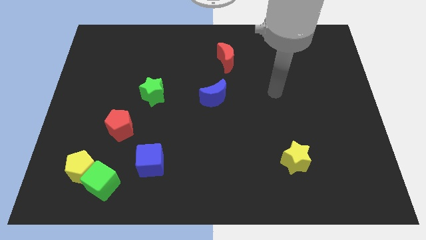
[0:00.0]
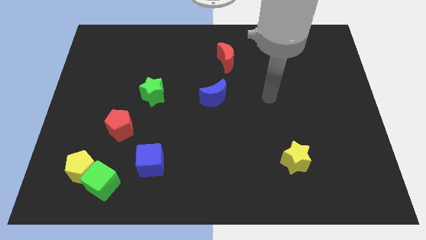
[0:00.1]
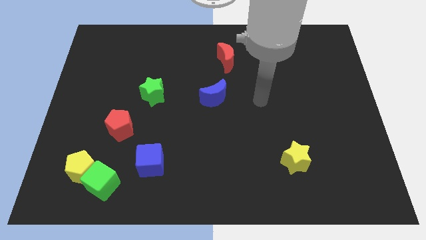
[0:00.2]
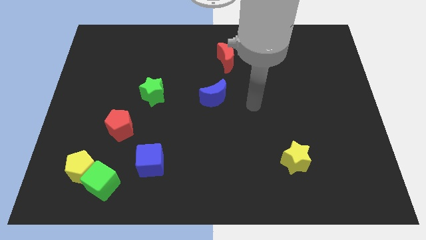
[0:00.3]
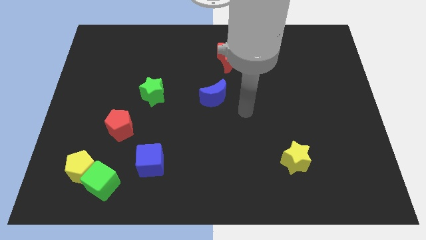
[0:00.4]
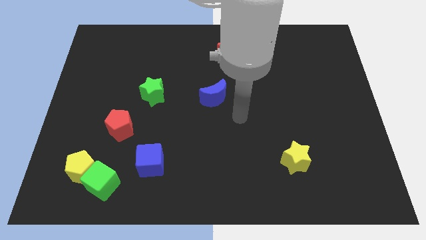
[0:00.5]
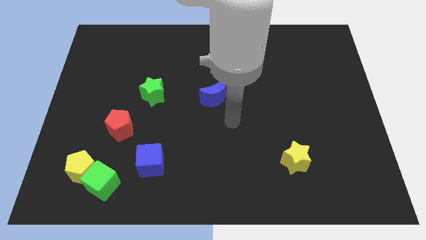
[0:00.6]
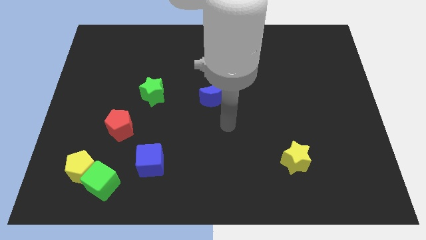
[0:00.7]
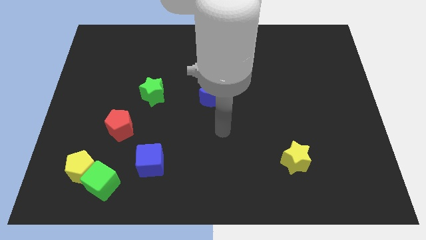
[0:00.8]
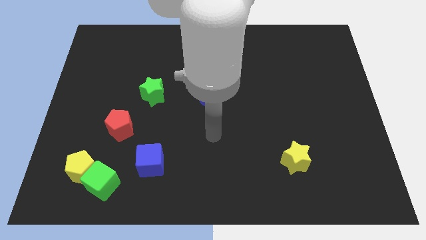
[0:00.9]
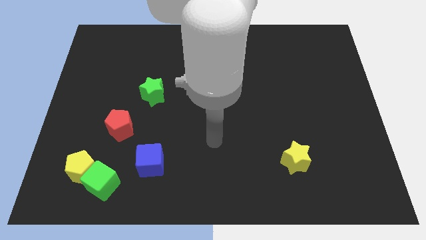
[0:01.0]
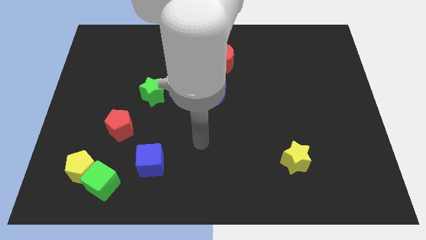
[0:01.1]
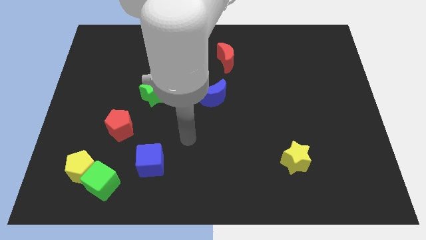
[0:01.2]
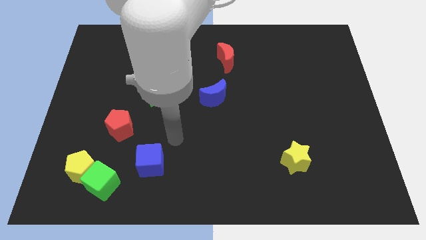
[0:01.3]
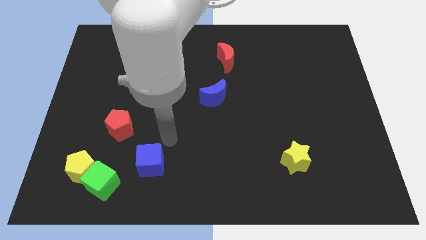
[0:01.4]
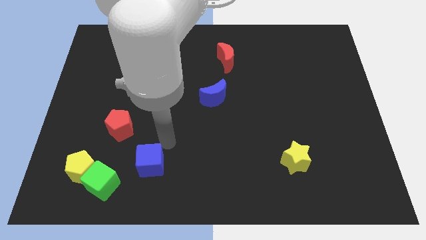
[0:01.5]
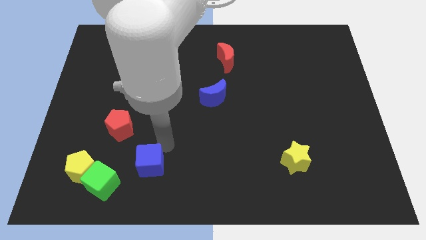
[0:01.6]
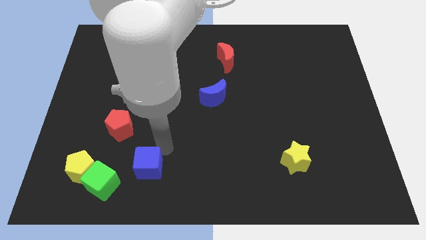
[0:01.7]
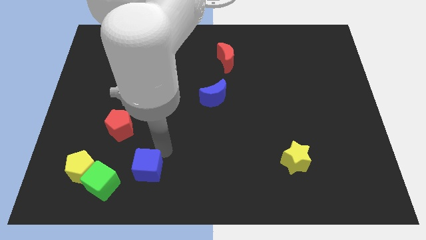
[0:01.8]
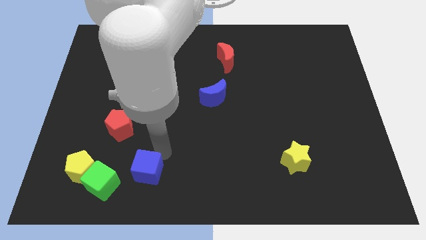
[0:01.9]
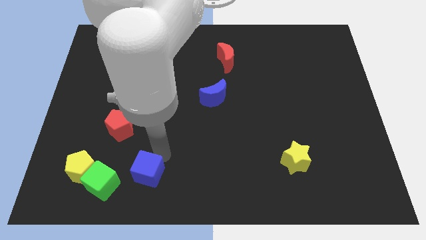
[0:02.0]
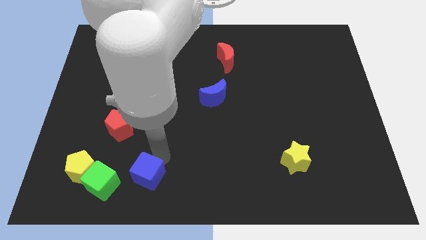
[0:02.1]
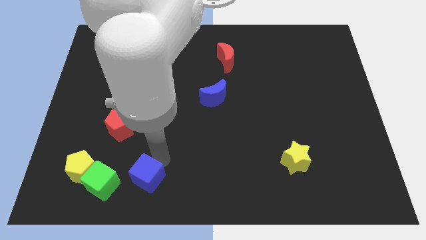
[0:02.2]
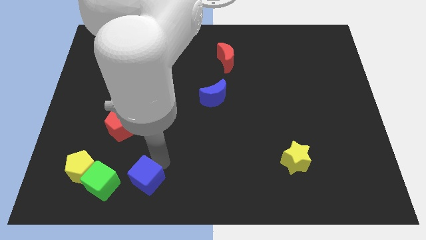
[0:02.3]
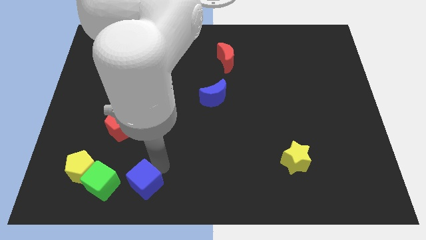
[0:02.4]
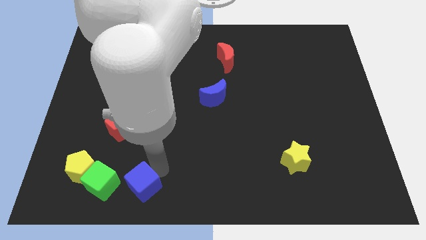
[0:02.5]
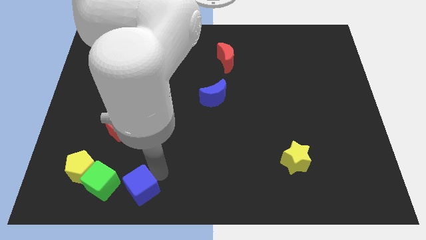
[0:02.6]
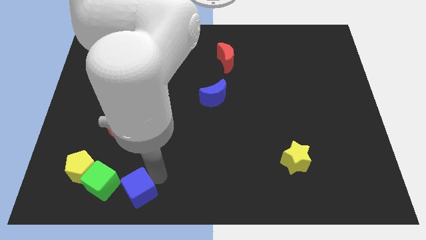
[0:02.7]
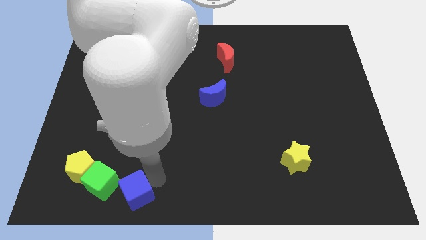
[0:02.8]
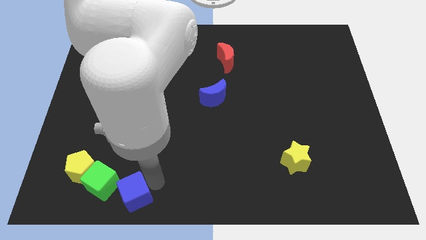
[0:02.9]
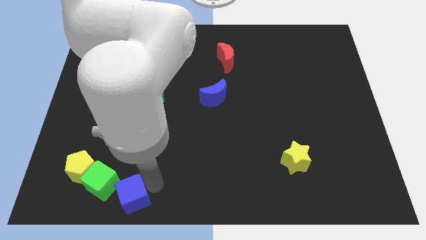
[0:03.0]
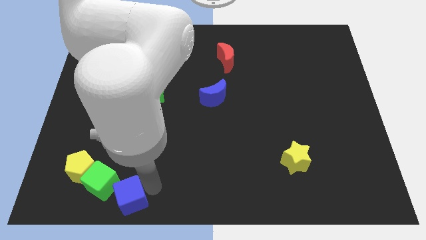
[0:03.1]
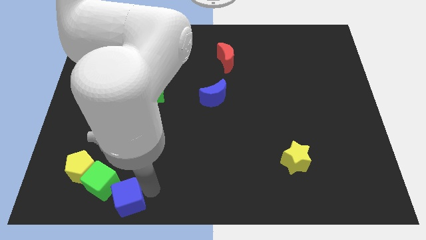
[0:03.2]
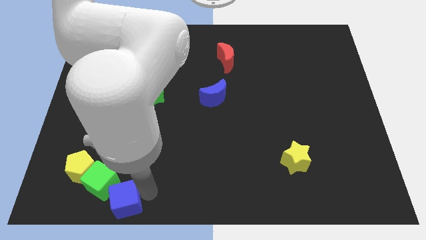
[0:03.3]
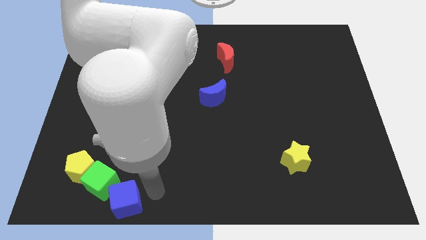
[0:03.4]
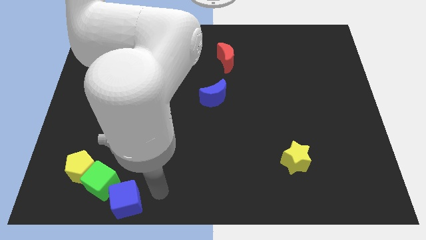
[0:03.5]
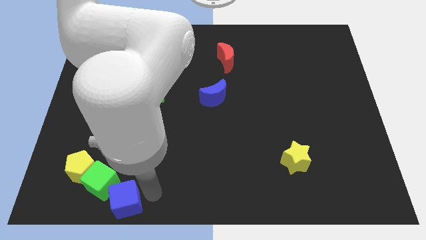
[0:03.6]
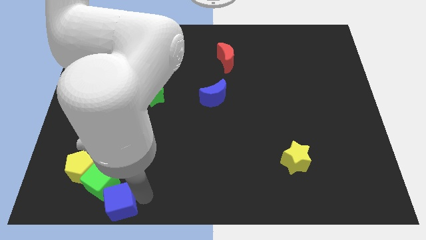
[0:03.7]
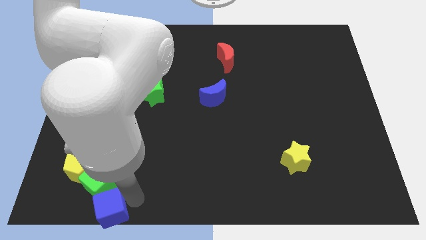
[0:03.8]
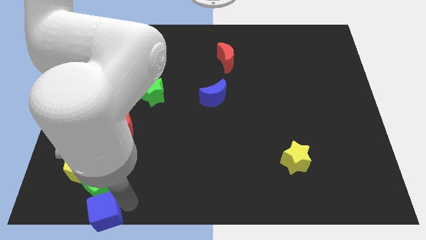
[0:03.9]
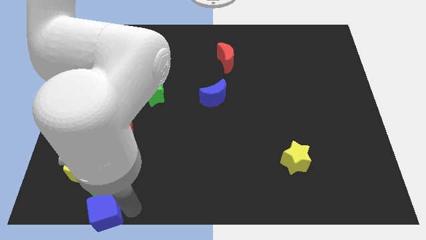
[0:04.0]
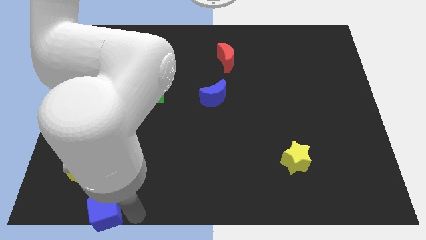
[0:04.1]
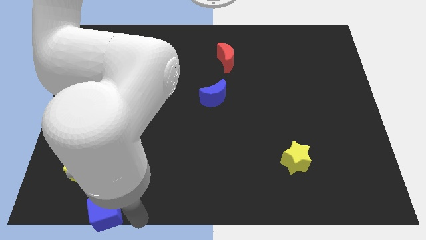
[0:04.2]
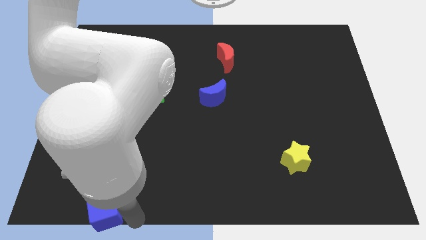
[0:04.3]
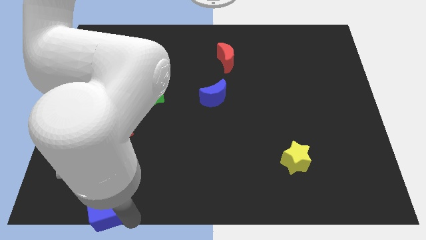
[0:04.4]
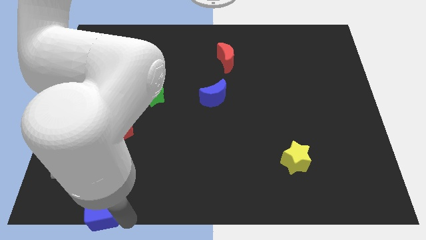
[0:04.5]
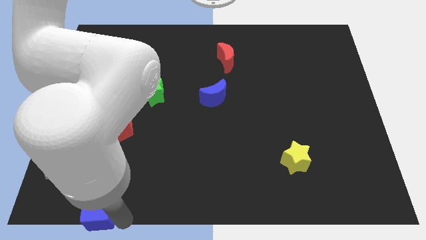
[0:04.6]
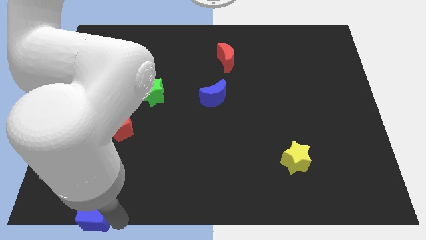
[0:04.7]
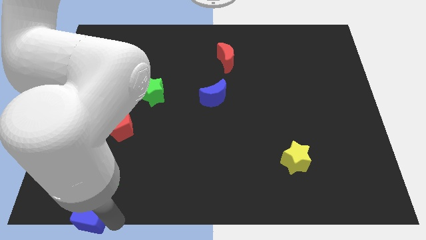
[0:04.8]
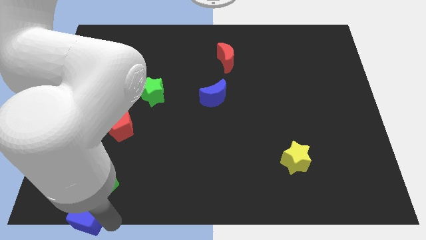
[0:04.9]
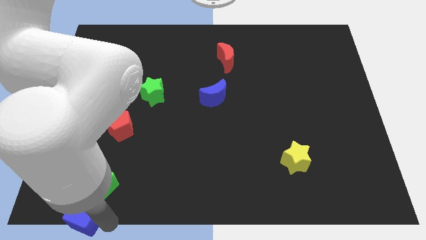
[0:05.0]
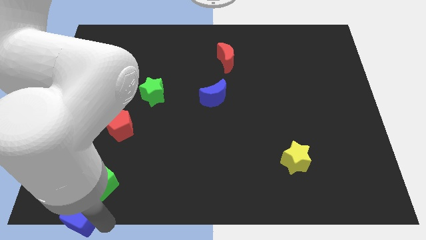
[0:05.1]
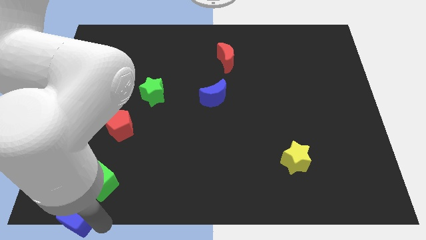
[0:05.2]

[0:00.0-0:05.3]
slide the blue cube to the bottom left

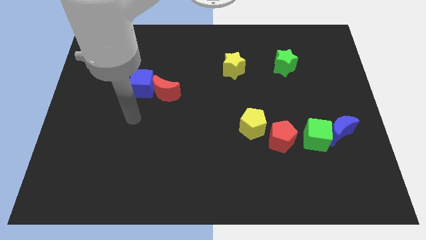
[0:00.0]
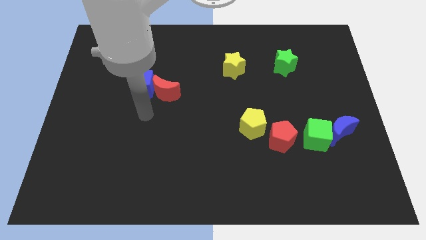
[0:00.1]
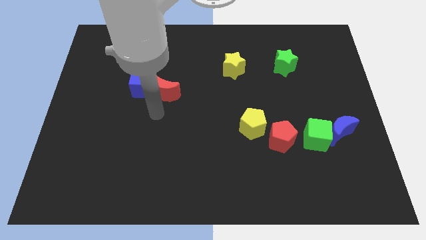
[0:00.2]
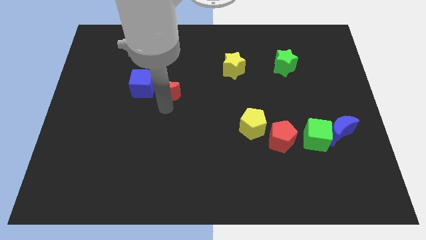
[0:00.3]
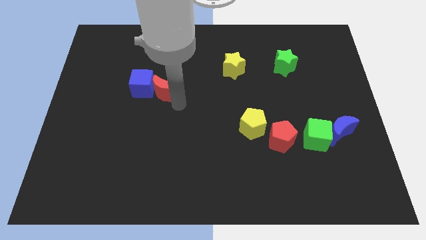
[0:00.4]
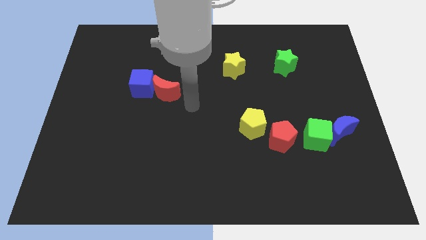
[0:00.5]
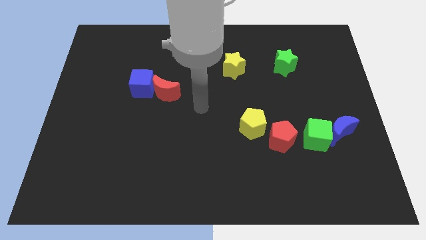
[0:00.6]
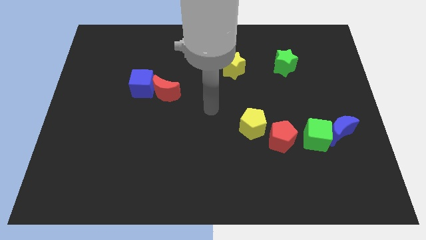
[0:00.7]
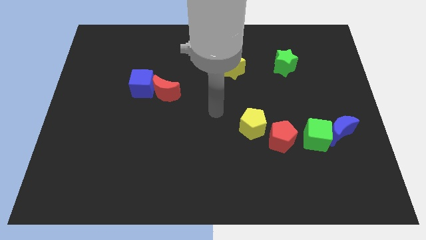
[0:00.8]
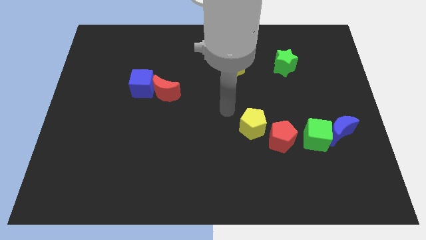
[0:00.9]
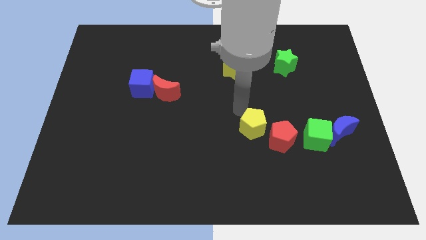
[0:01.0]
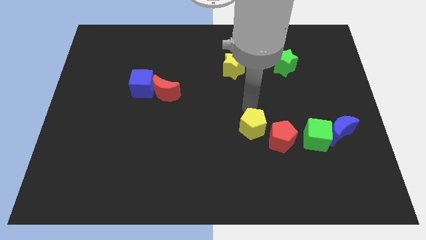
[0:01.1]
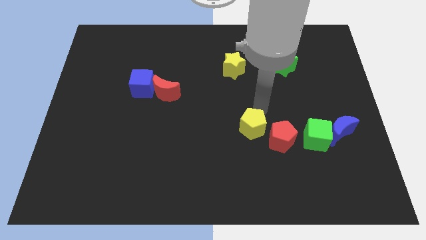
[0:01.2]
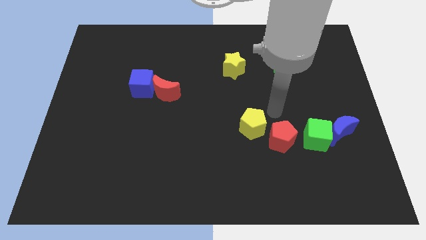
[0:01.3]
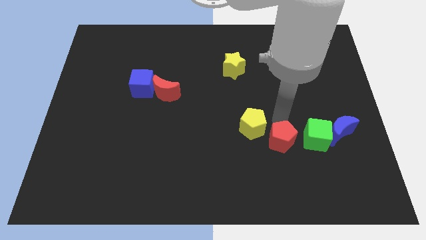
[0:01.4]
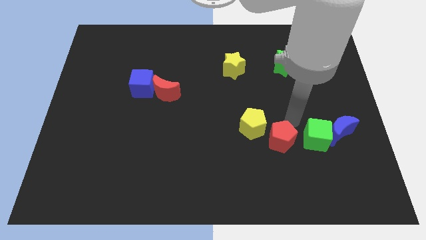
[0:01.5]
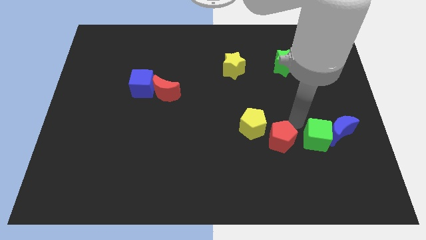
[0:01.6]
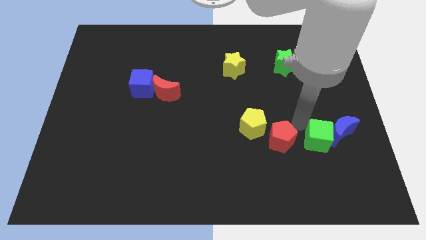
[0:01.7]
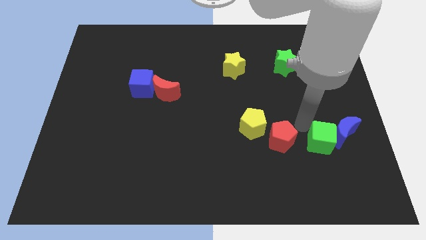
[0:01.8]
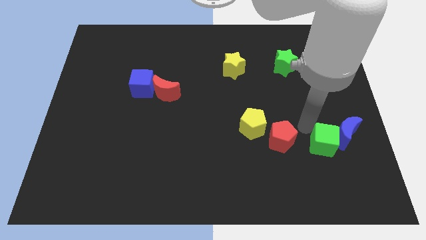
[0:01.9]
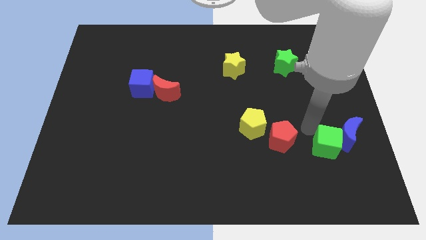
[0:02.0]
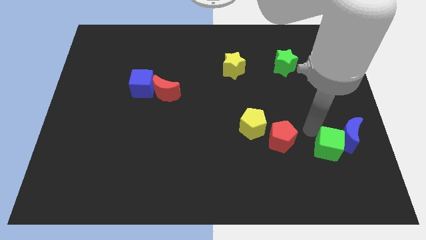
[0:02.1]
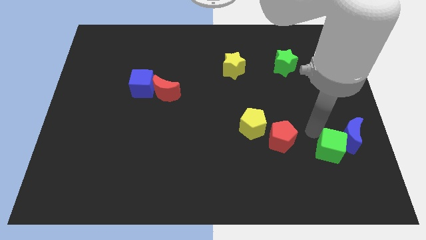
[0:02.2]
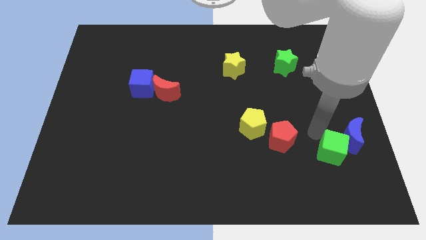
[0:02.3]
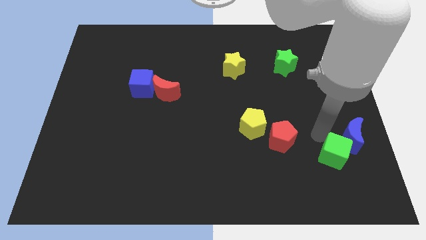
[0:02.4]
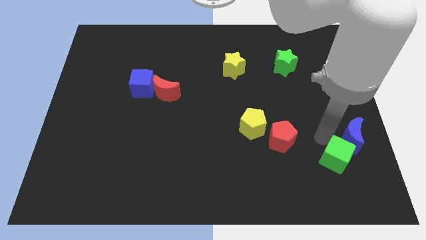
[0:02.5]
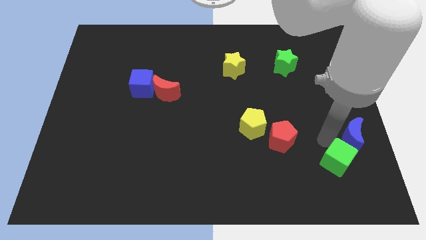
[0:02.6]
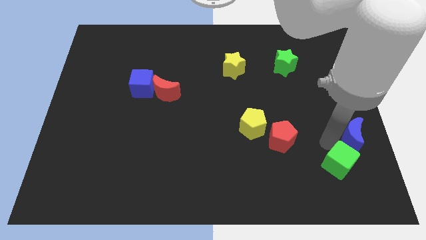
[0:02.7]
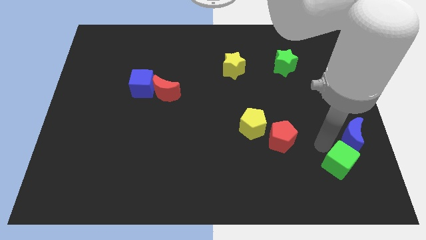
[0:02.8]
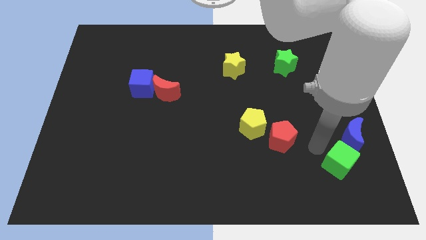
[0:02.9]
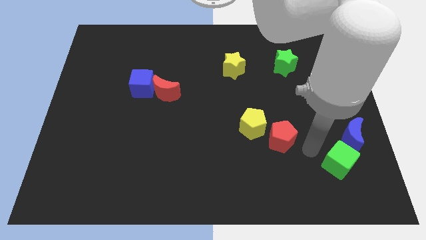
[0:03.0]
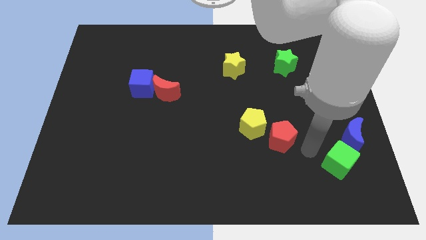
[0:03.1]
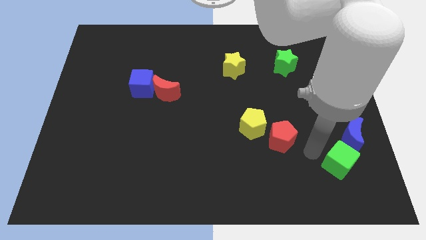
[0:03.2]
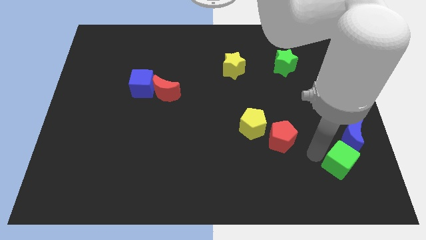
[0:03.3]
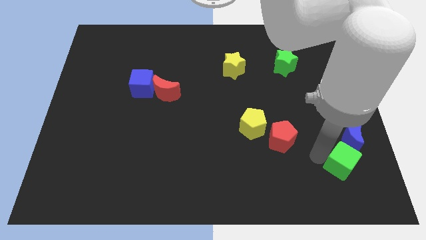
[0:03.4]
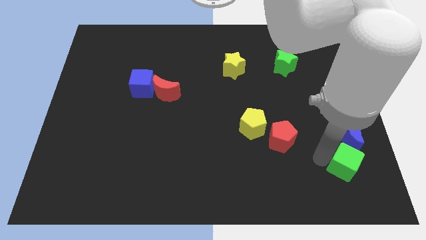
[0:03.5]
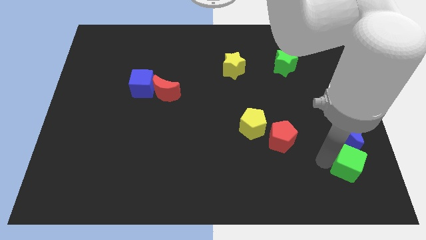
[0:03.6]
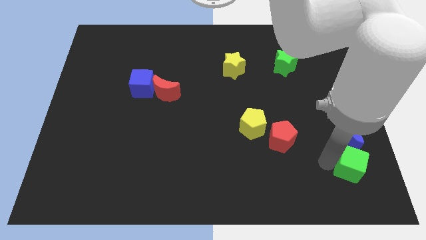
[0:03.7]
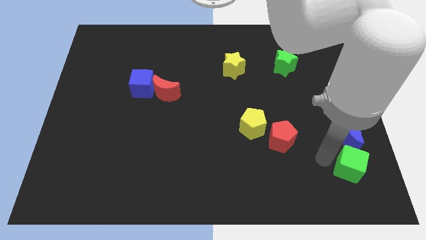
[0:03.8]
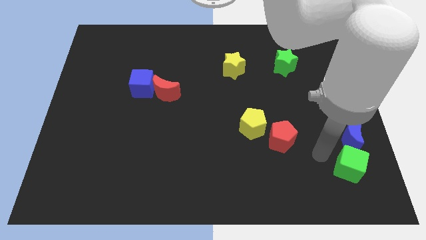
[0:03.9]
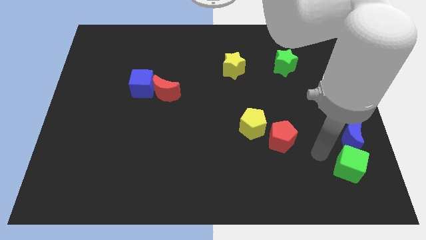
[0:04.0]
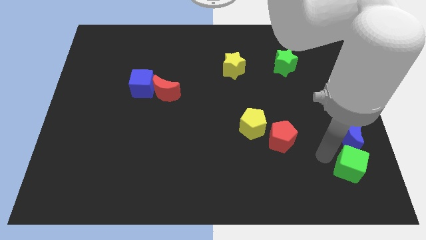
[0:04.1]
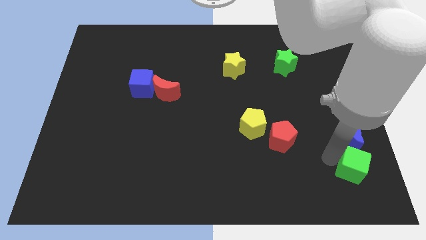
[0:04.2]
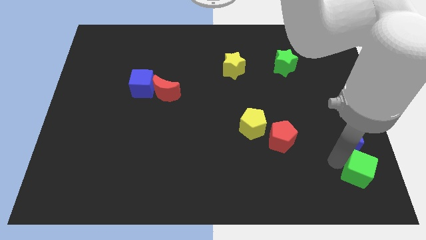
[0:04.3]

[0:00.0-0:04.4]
slide the green cube to the lower right corner
